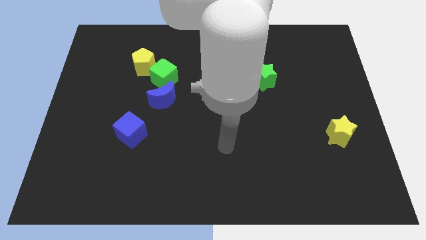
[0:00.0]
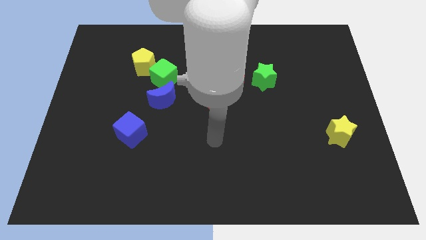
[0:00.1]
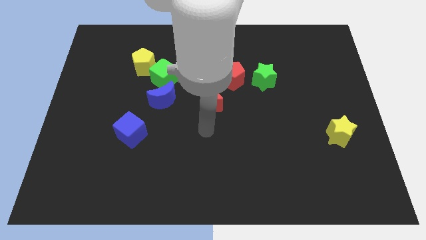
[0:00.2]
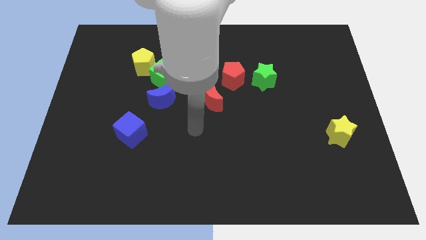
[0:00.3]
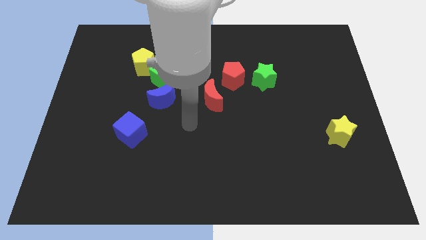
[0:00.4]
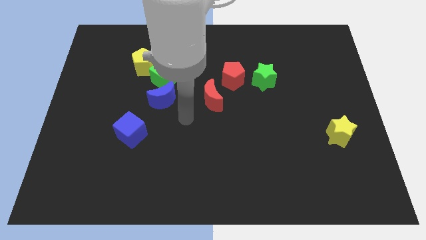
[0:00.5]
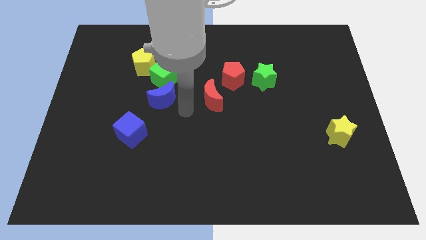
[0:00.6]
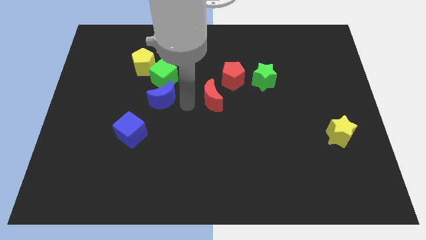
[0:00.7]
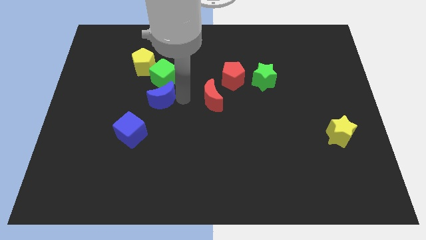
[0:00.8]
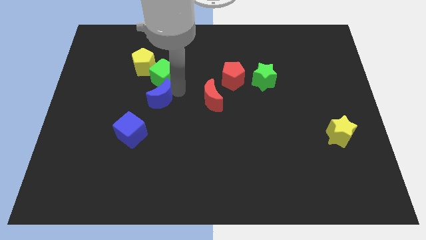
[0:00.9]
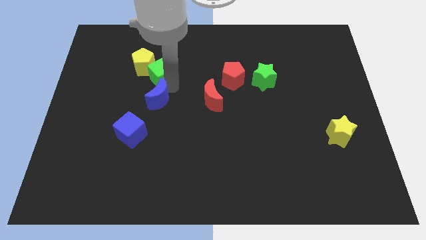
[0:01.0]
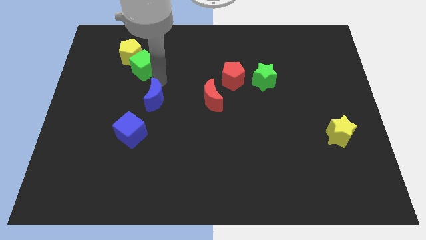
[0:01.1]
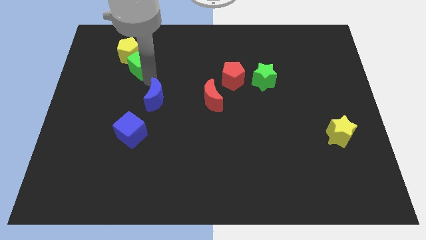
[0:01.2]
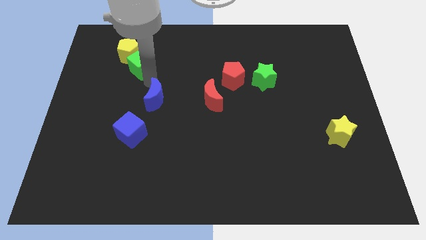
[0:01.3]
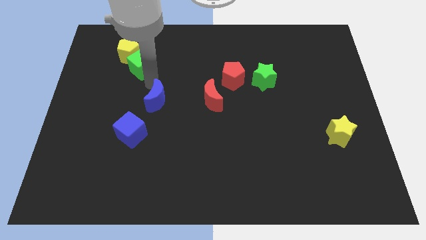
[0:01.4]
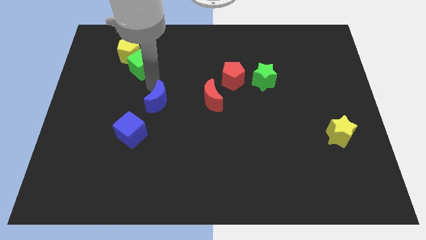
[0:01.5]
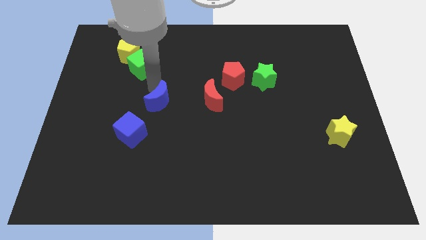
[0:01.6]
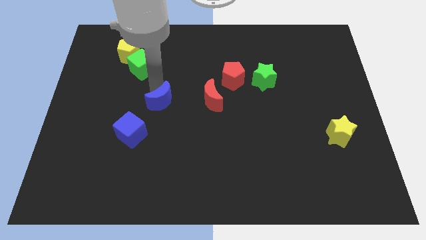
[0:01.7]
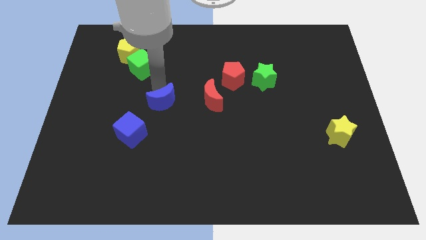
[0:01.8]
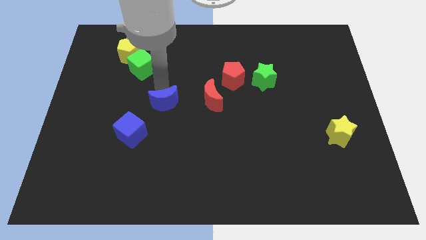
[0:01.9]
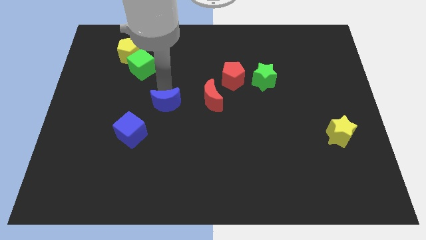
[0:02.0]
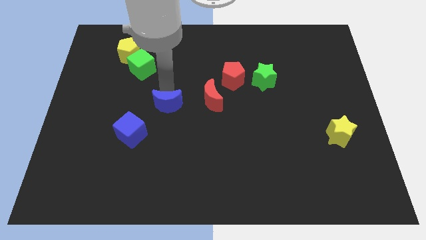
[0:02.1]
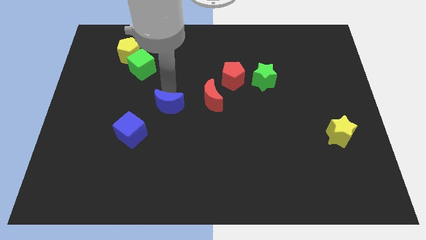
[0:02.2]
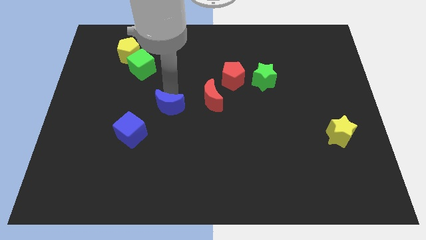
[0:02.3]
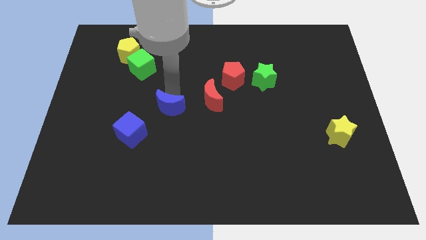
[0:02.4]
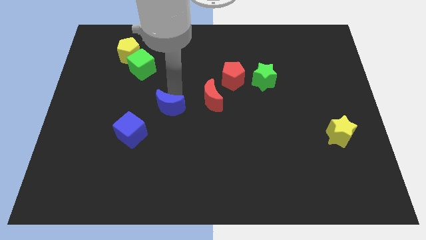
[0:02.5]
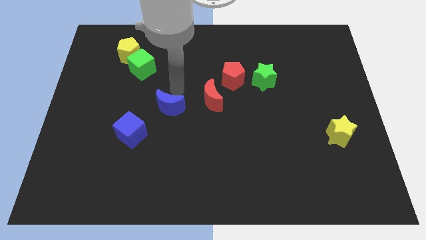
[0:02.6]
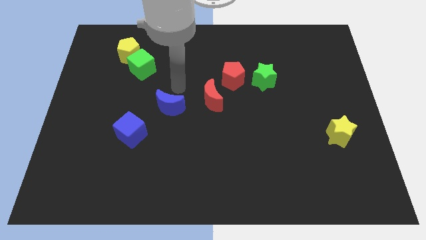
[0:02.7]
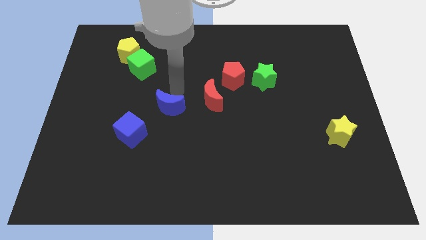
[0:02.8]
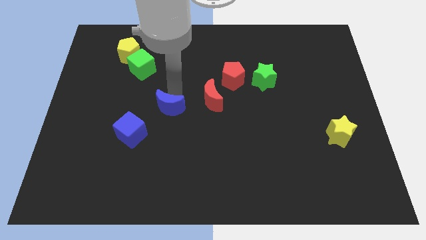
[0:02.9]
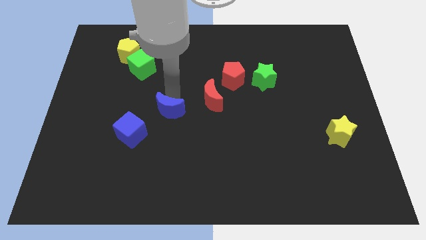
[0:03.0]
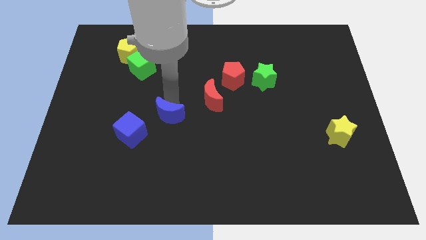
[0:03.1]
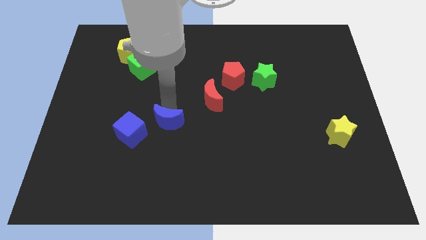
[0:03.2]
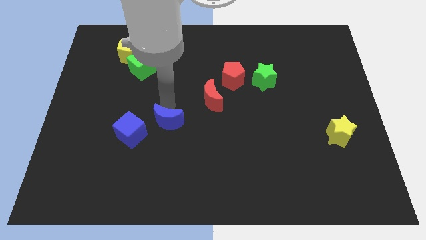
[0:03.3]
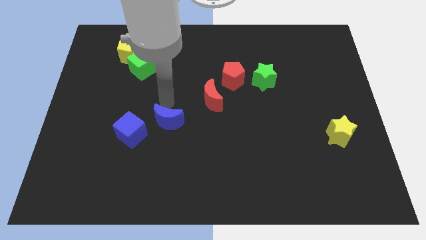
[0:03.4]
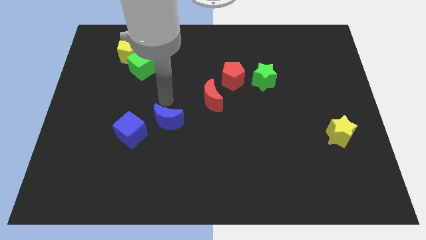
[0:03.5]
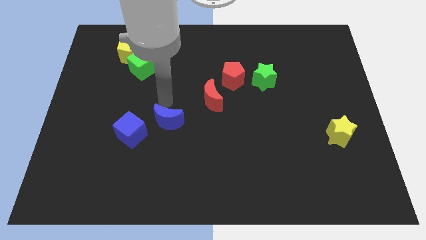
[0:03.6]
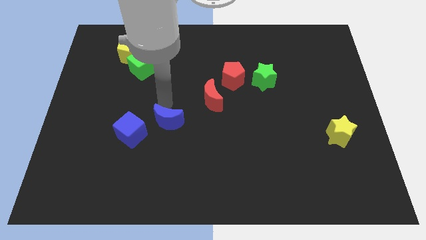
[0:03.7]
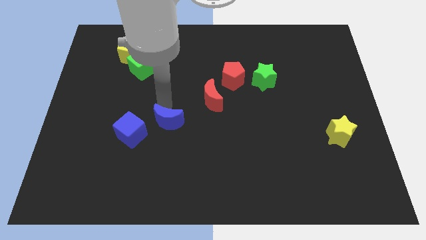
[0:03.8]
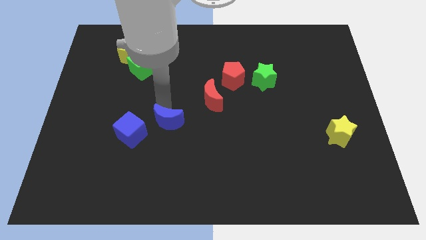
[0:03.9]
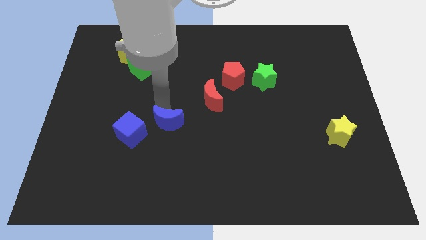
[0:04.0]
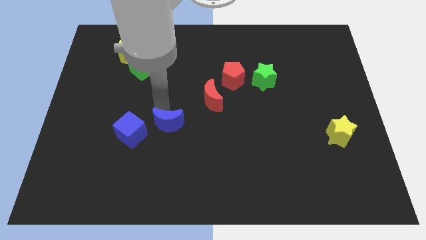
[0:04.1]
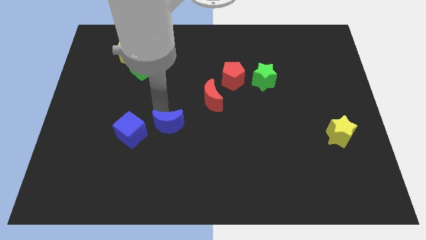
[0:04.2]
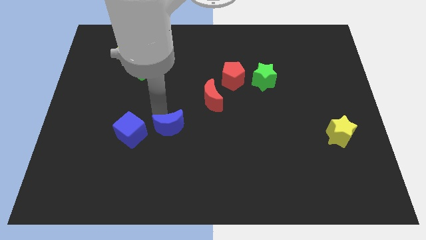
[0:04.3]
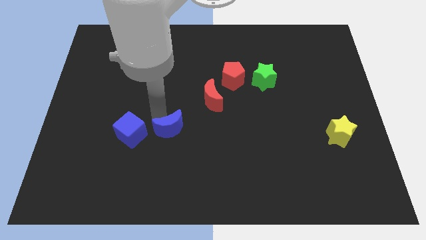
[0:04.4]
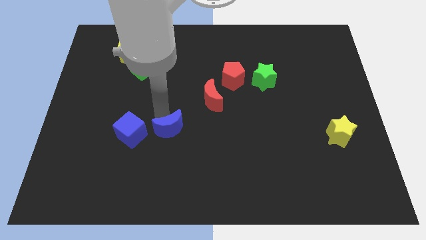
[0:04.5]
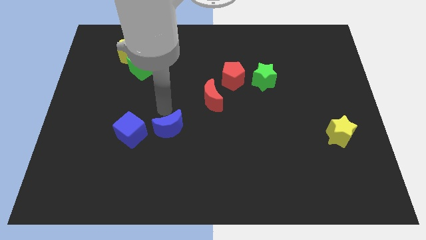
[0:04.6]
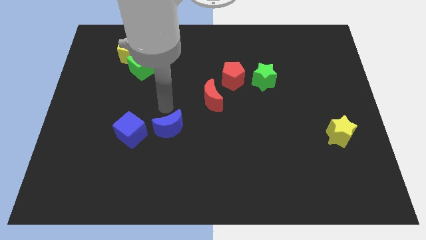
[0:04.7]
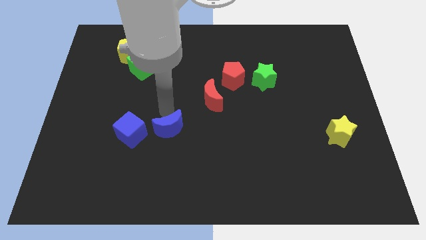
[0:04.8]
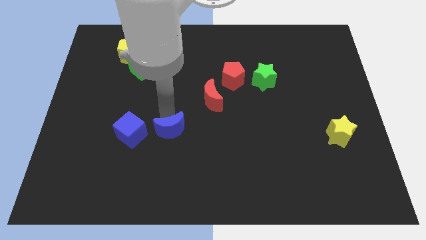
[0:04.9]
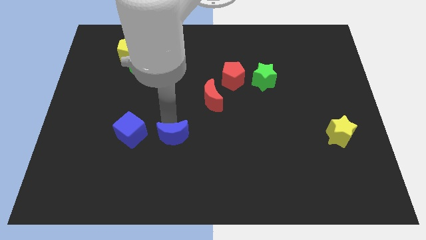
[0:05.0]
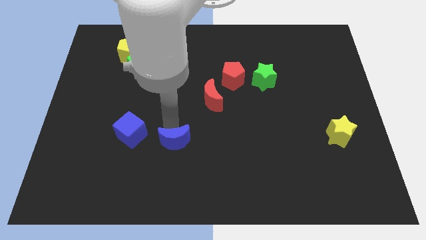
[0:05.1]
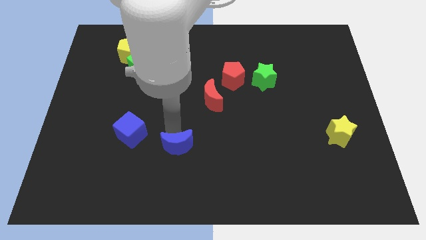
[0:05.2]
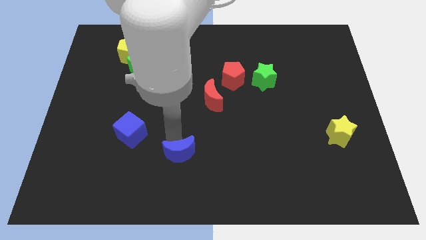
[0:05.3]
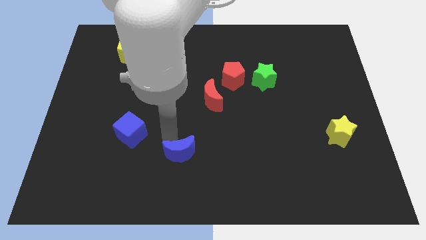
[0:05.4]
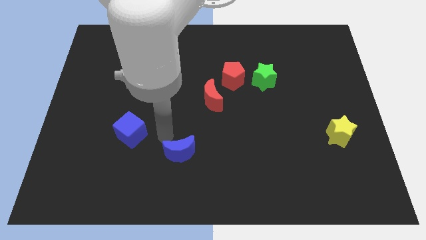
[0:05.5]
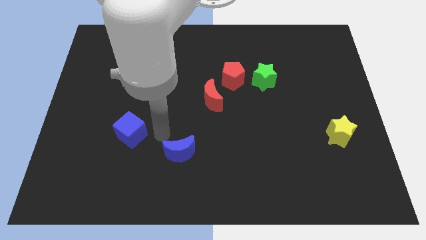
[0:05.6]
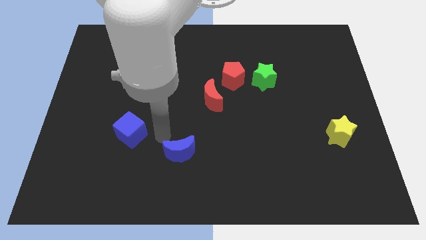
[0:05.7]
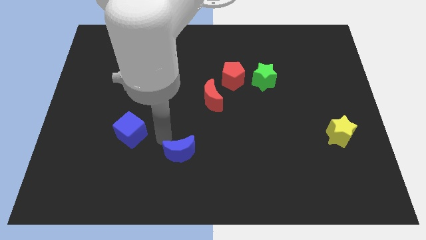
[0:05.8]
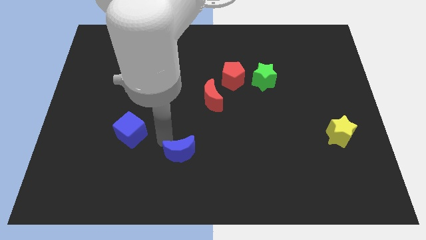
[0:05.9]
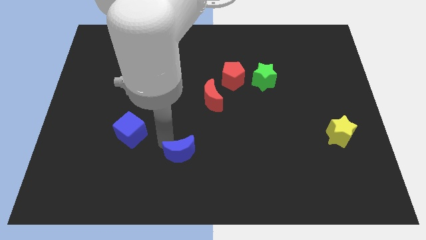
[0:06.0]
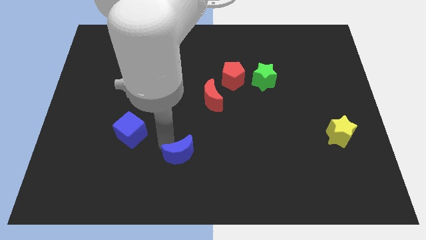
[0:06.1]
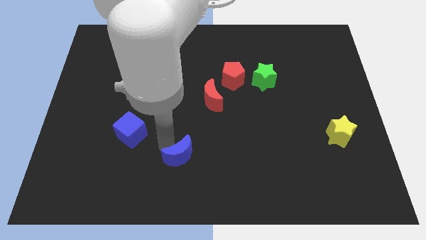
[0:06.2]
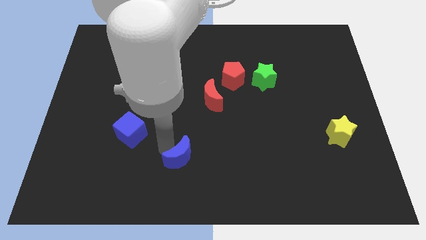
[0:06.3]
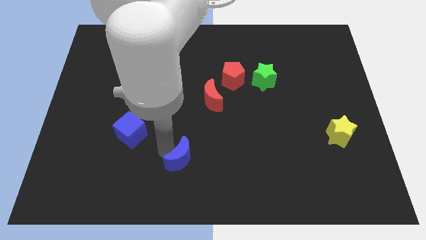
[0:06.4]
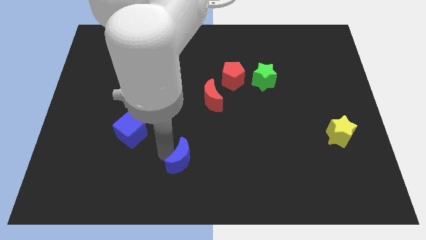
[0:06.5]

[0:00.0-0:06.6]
push the blue moon to the bottom side
